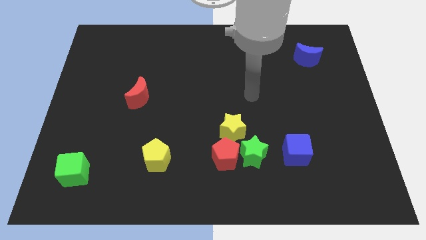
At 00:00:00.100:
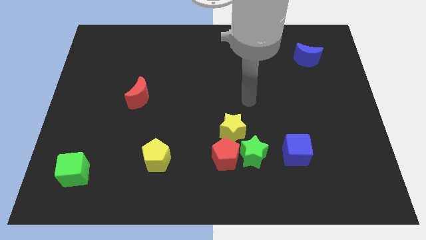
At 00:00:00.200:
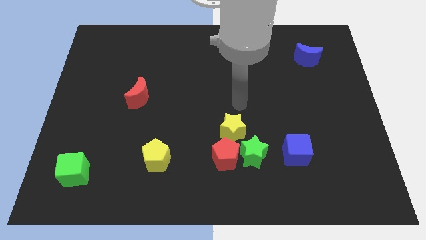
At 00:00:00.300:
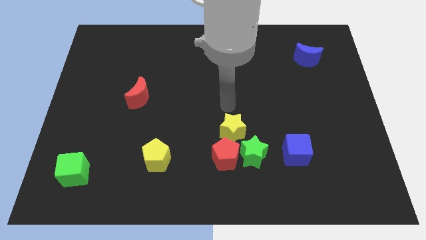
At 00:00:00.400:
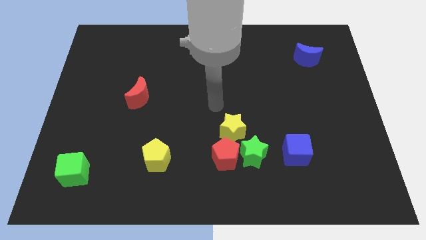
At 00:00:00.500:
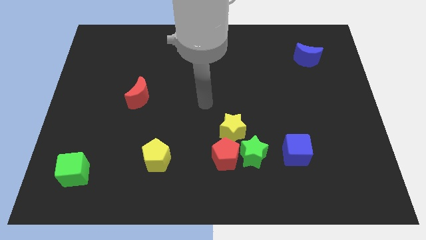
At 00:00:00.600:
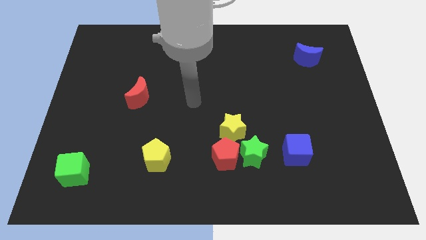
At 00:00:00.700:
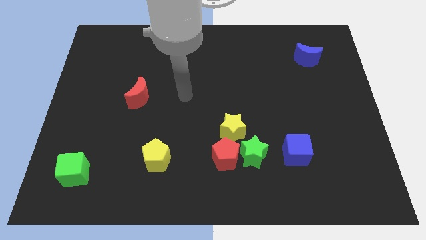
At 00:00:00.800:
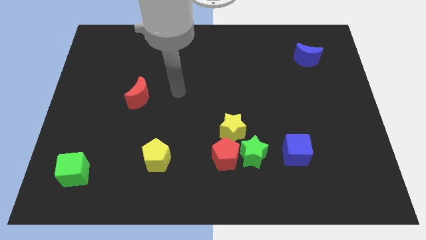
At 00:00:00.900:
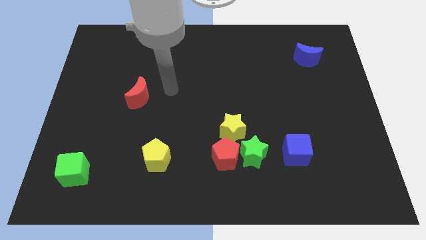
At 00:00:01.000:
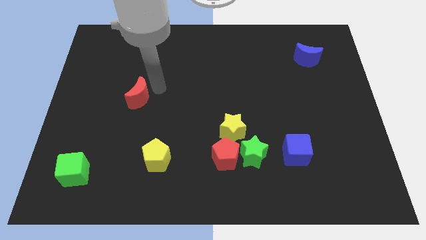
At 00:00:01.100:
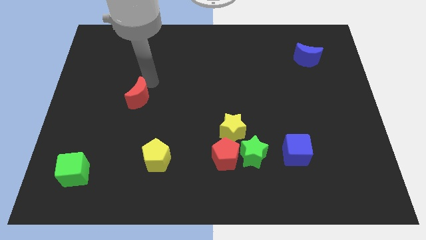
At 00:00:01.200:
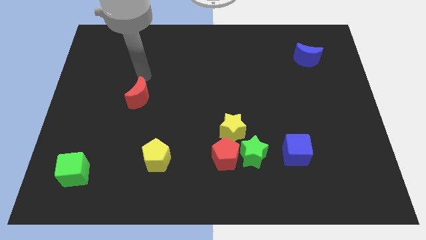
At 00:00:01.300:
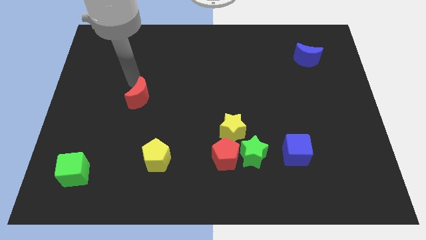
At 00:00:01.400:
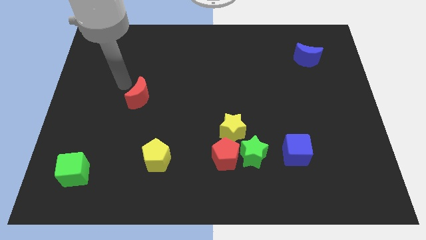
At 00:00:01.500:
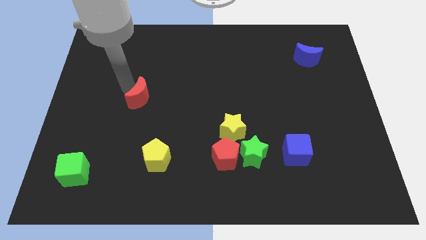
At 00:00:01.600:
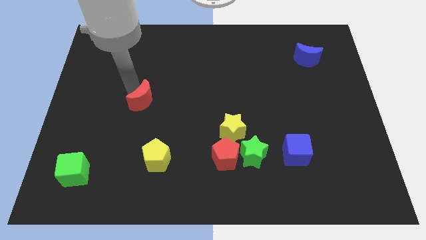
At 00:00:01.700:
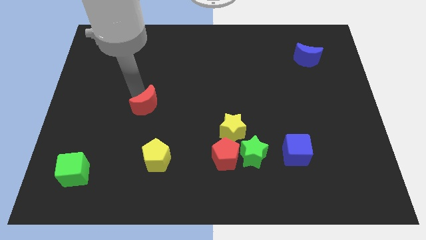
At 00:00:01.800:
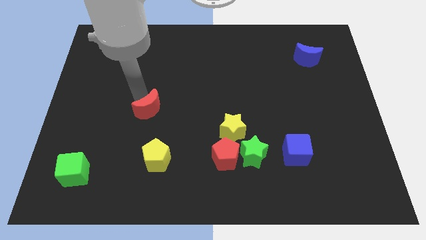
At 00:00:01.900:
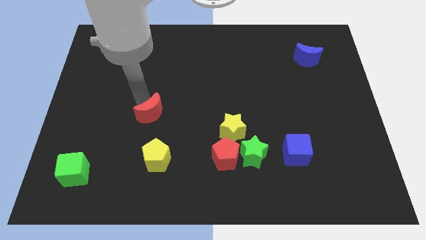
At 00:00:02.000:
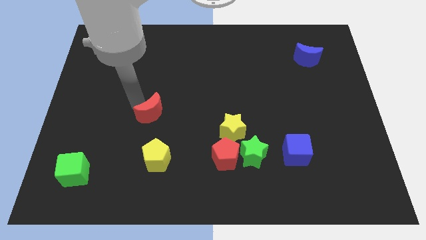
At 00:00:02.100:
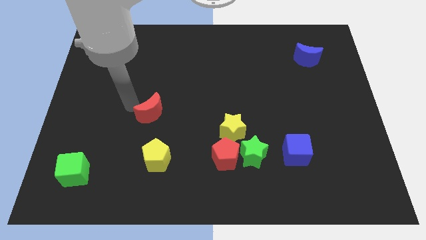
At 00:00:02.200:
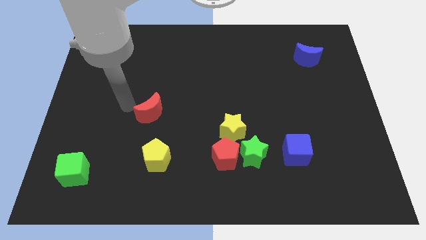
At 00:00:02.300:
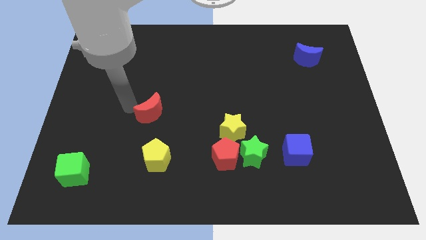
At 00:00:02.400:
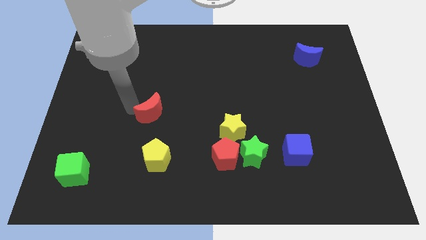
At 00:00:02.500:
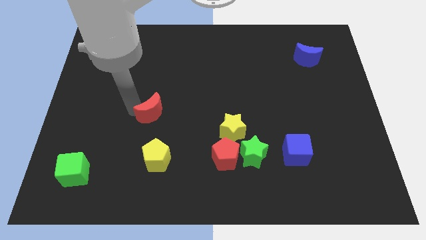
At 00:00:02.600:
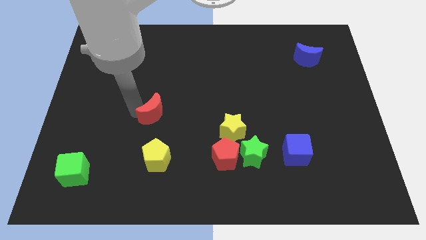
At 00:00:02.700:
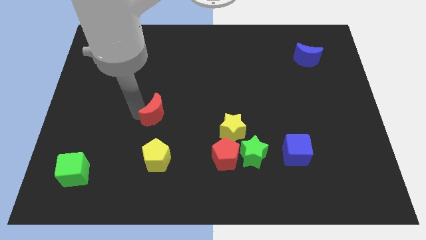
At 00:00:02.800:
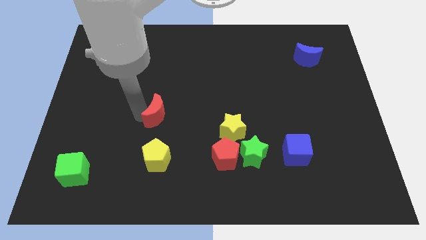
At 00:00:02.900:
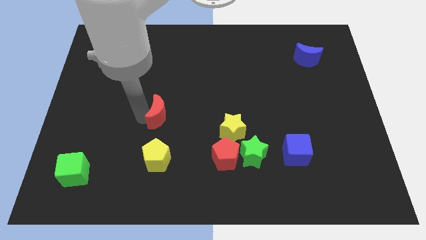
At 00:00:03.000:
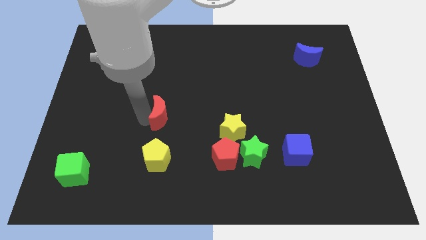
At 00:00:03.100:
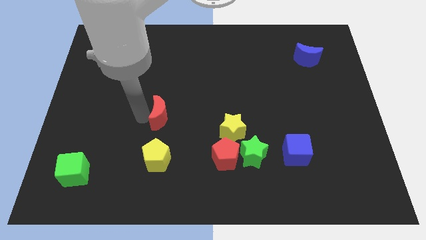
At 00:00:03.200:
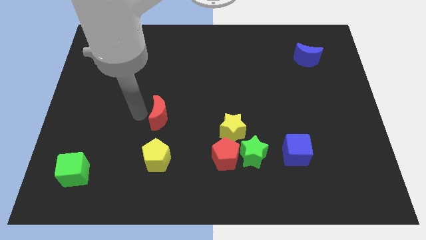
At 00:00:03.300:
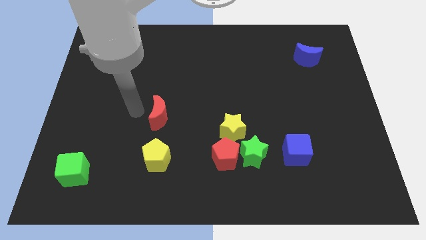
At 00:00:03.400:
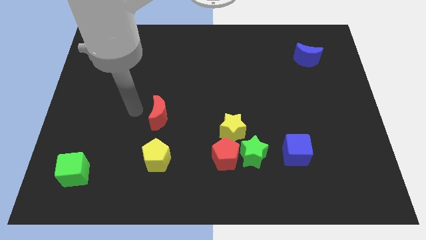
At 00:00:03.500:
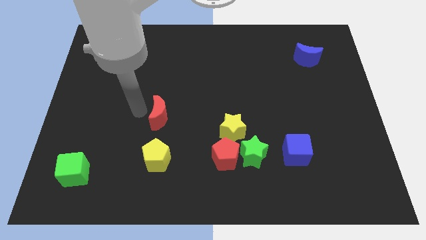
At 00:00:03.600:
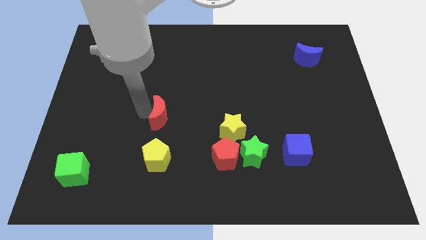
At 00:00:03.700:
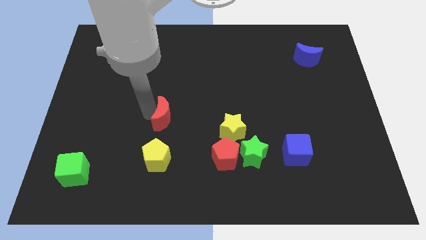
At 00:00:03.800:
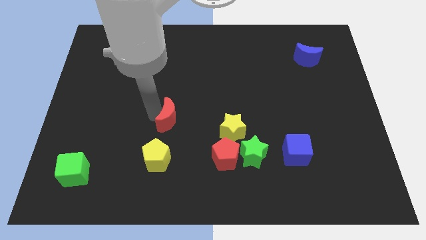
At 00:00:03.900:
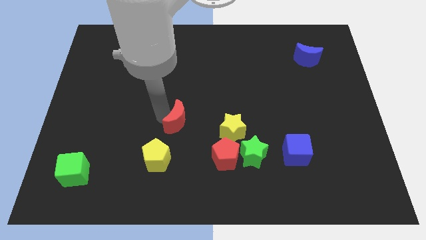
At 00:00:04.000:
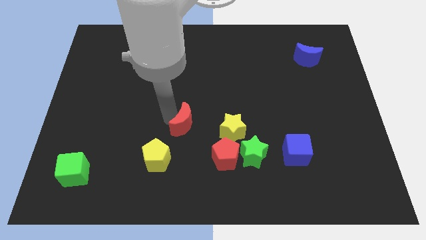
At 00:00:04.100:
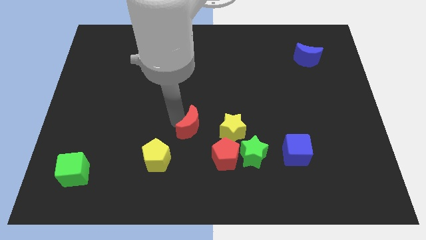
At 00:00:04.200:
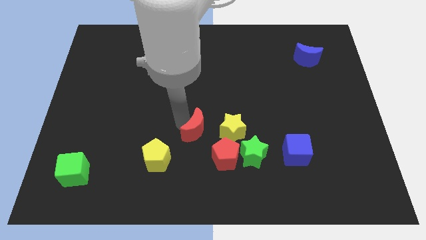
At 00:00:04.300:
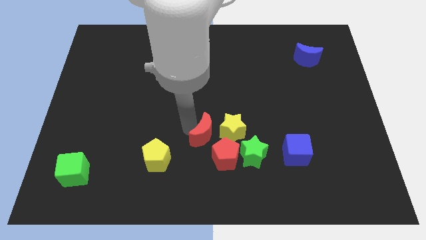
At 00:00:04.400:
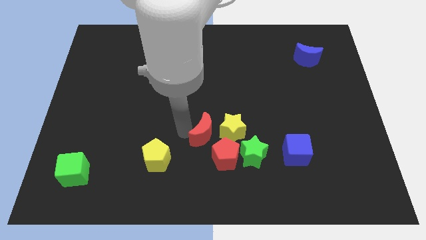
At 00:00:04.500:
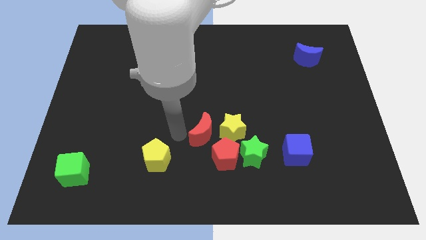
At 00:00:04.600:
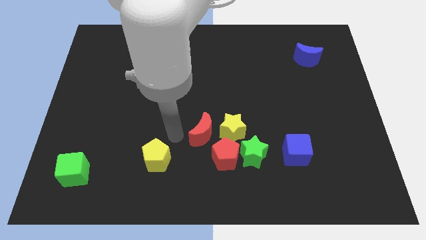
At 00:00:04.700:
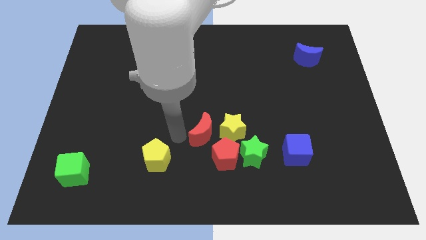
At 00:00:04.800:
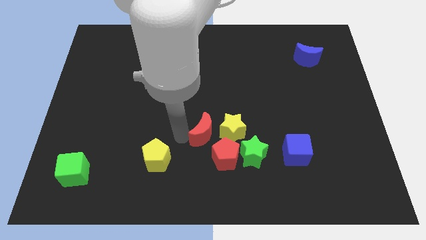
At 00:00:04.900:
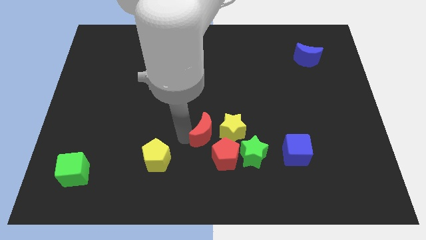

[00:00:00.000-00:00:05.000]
push the red moon towards the yellow star

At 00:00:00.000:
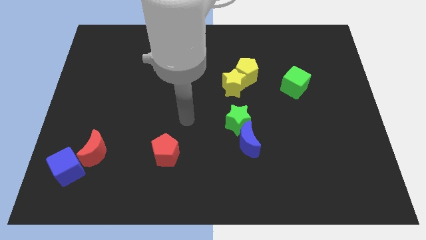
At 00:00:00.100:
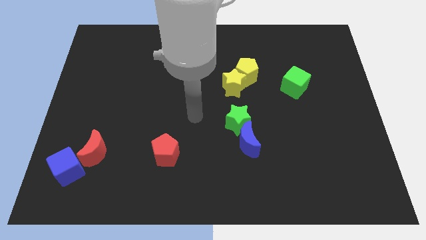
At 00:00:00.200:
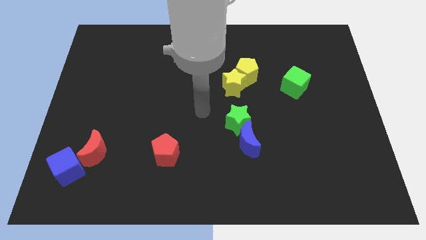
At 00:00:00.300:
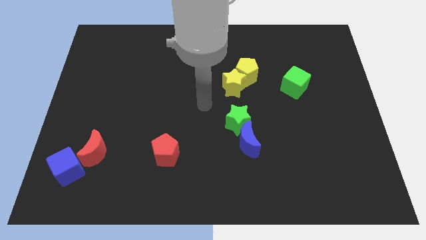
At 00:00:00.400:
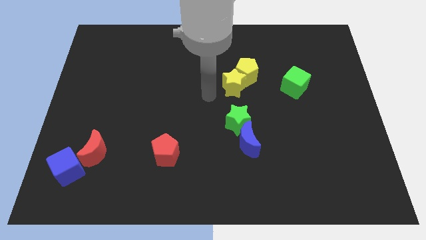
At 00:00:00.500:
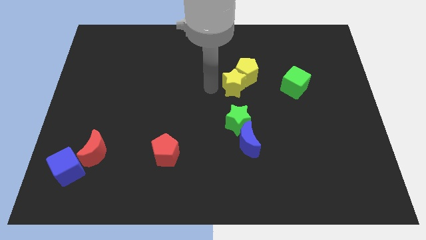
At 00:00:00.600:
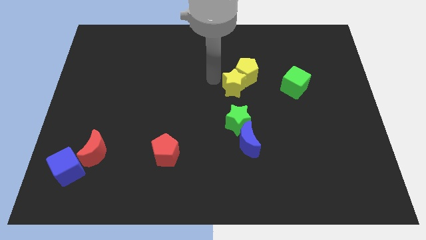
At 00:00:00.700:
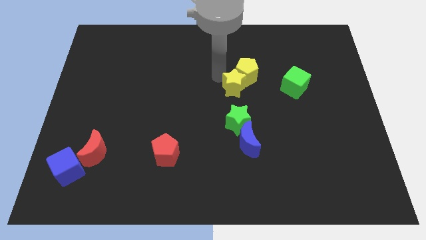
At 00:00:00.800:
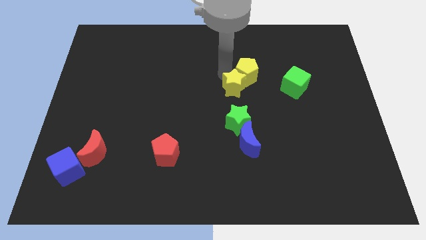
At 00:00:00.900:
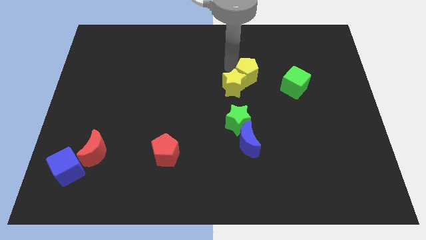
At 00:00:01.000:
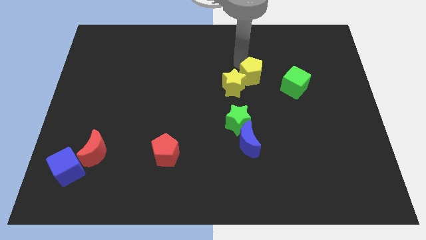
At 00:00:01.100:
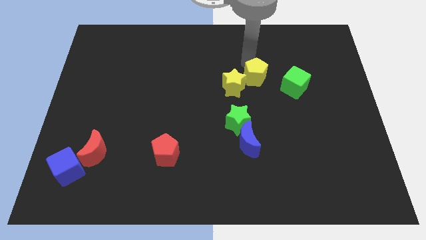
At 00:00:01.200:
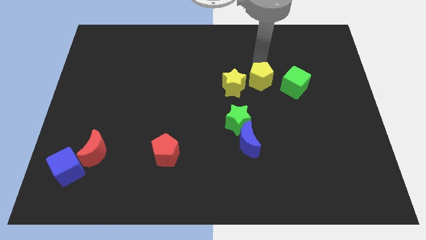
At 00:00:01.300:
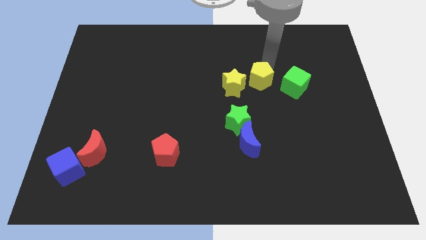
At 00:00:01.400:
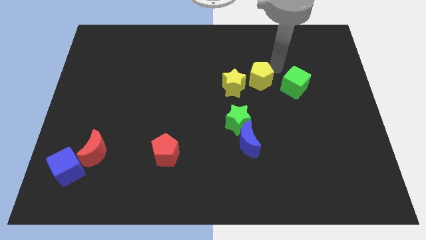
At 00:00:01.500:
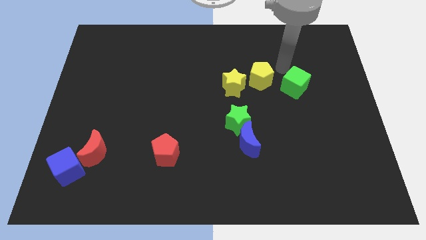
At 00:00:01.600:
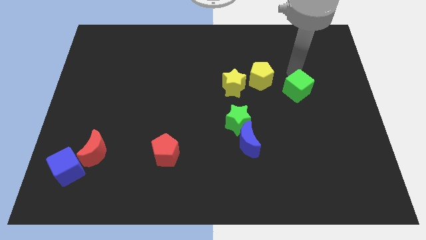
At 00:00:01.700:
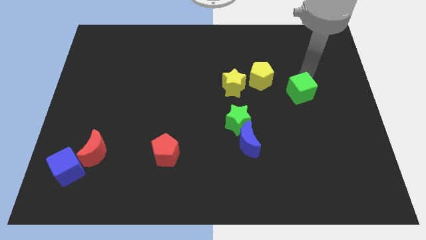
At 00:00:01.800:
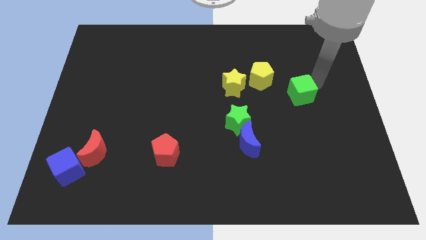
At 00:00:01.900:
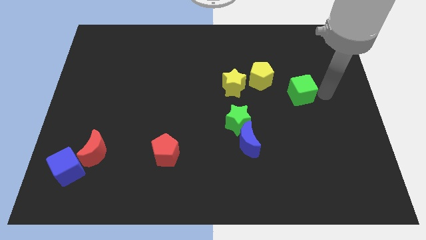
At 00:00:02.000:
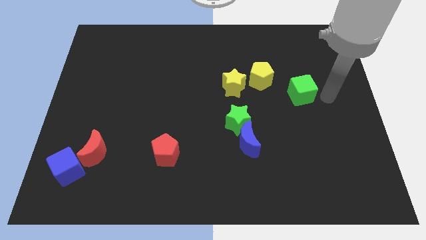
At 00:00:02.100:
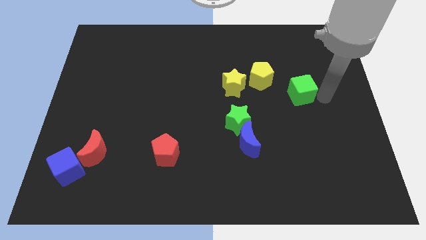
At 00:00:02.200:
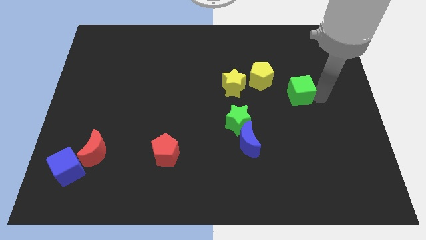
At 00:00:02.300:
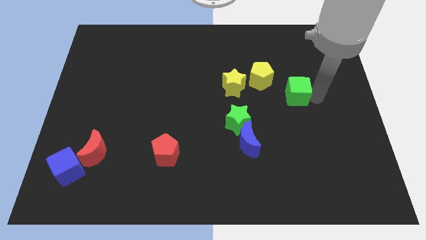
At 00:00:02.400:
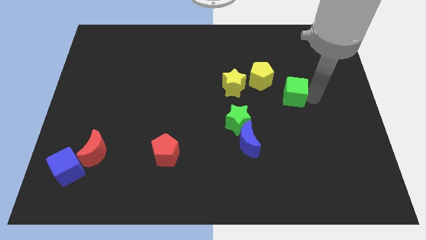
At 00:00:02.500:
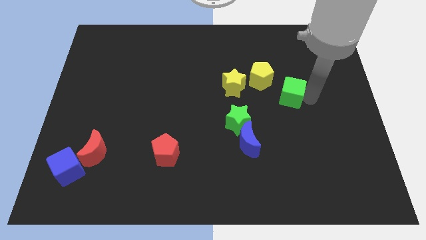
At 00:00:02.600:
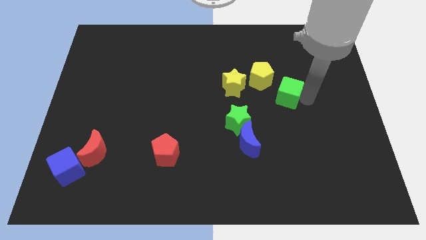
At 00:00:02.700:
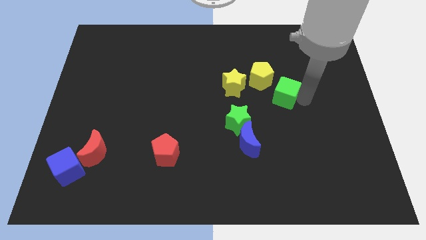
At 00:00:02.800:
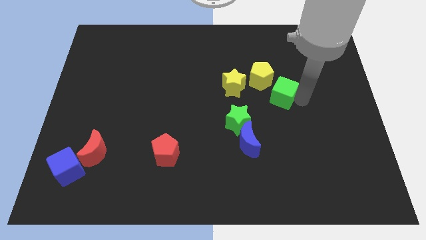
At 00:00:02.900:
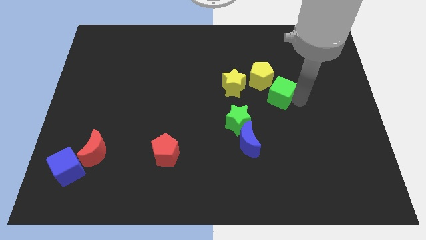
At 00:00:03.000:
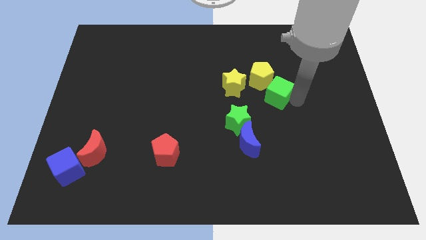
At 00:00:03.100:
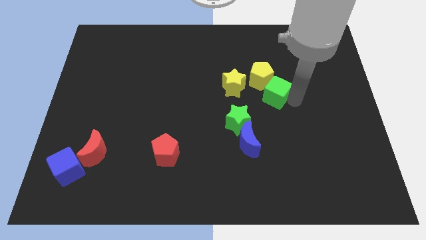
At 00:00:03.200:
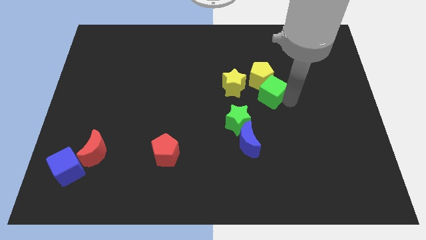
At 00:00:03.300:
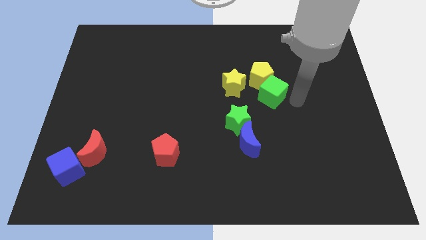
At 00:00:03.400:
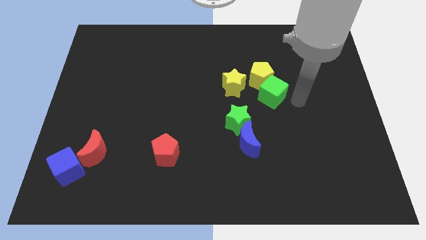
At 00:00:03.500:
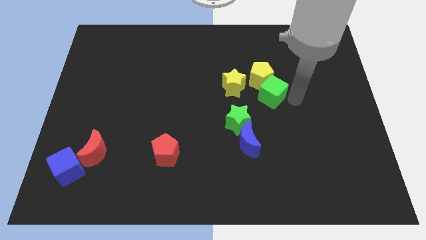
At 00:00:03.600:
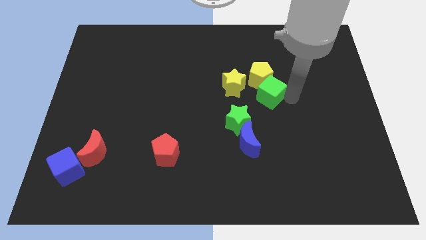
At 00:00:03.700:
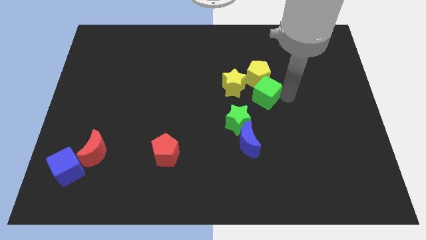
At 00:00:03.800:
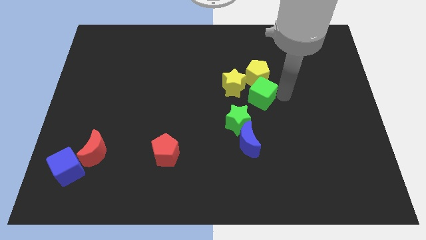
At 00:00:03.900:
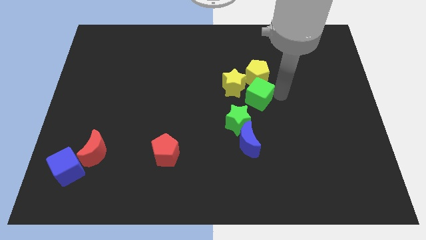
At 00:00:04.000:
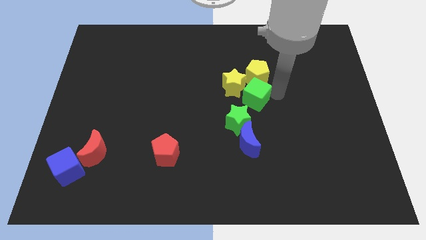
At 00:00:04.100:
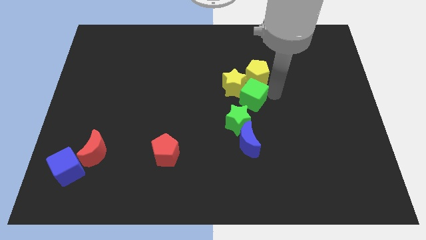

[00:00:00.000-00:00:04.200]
move the green cube next to the yellow star
